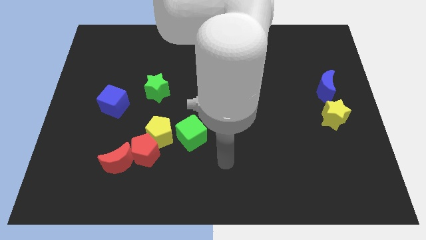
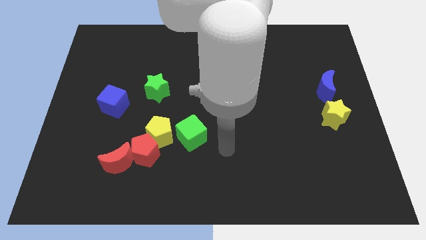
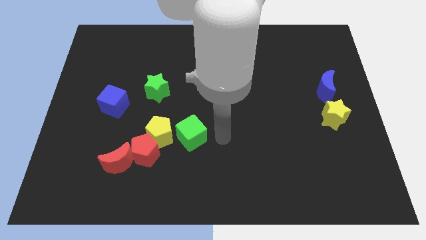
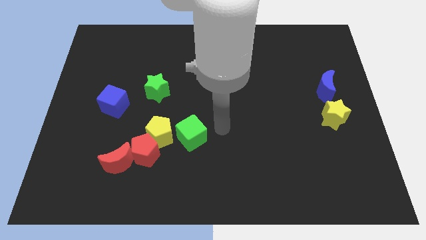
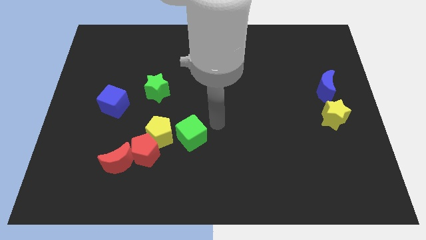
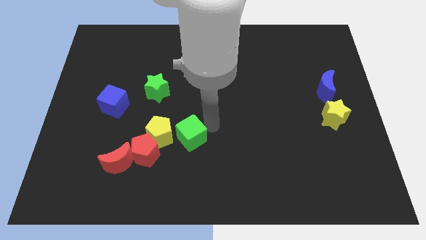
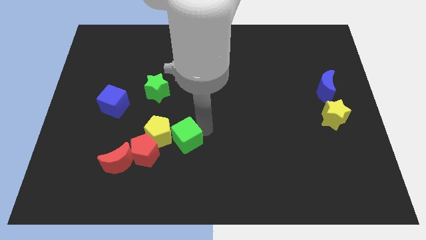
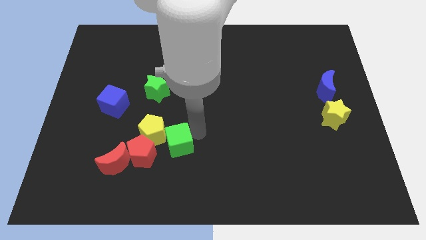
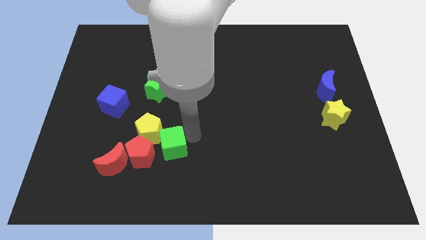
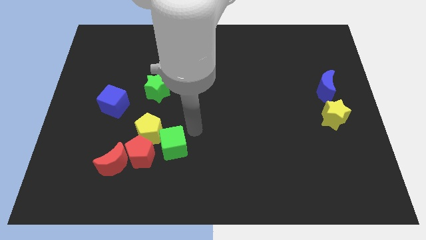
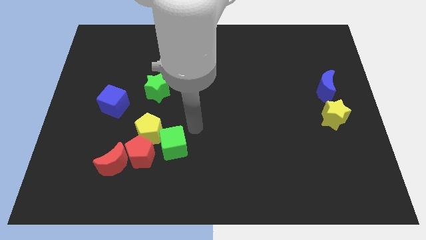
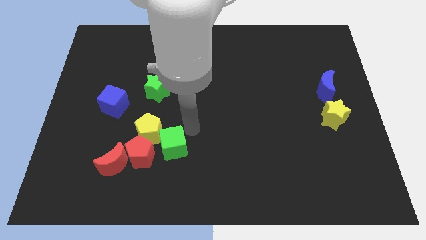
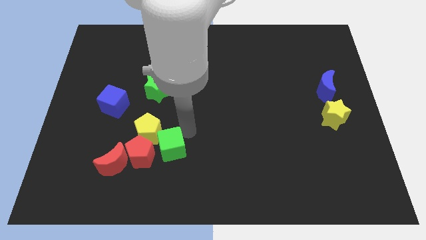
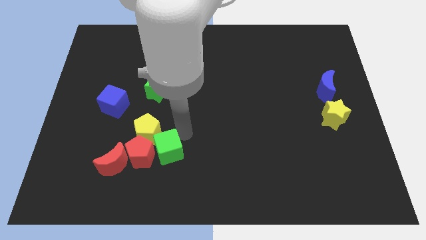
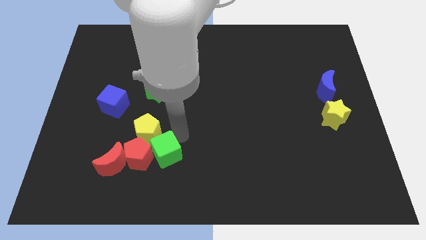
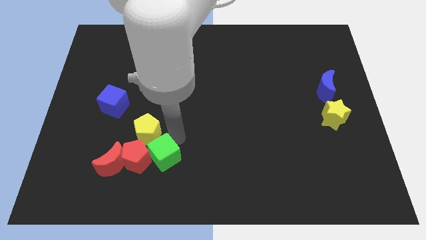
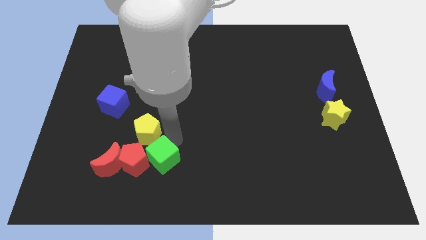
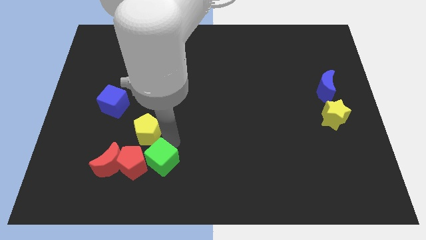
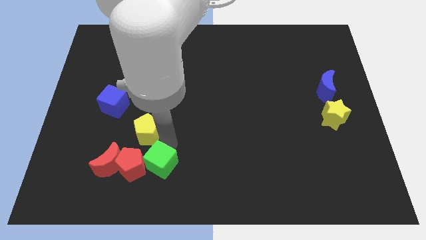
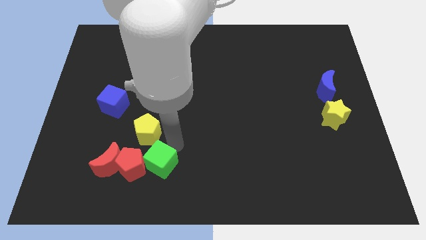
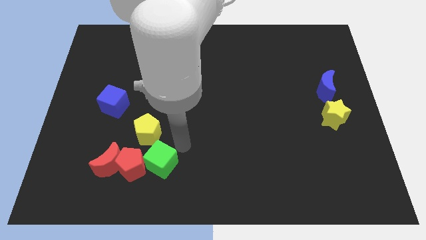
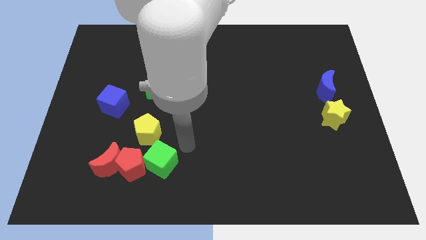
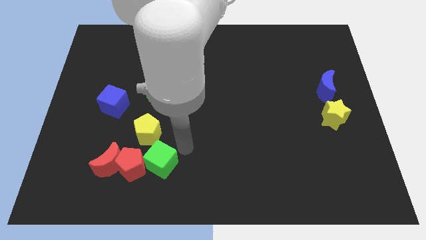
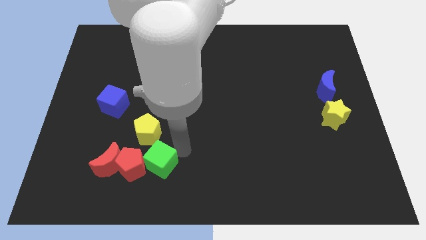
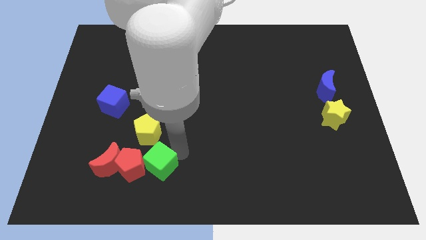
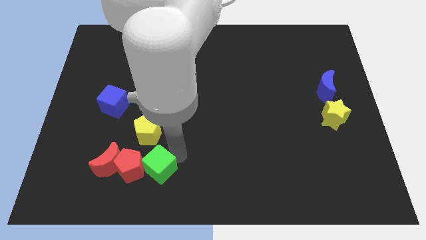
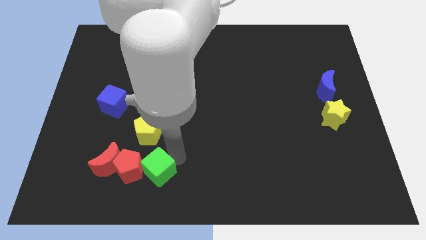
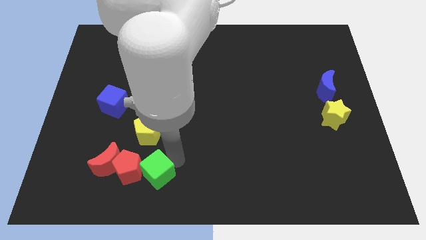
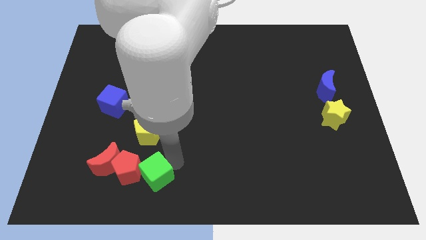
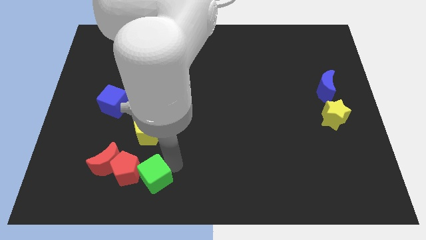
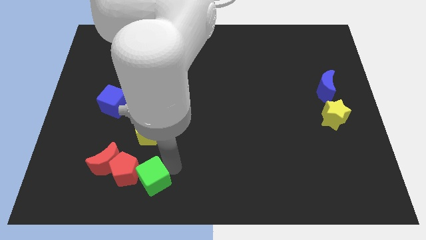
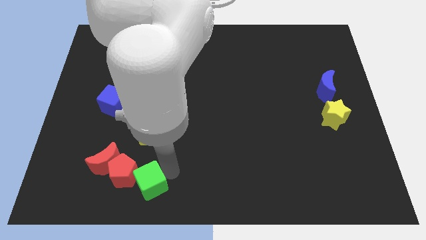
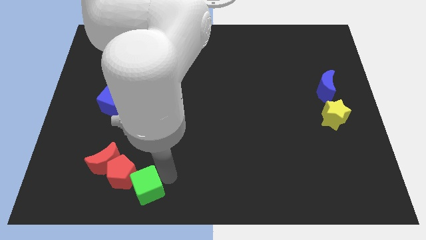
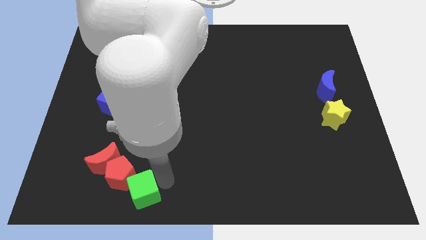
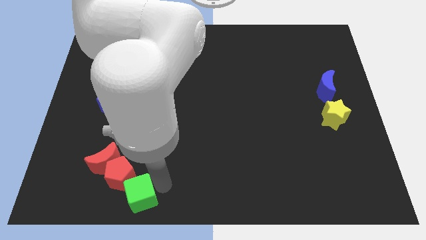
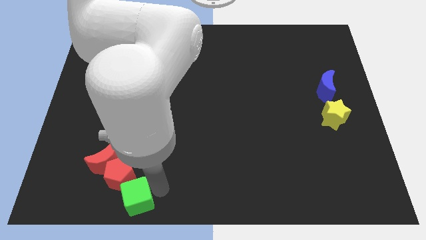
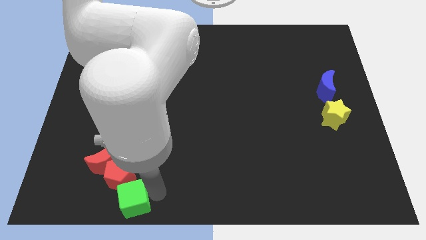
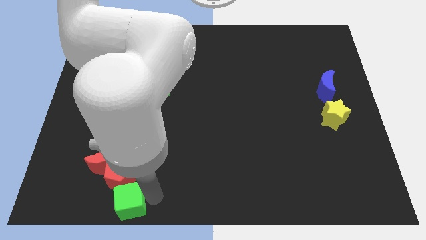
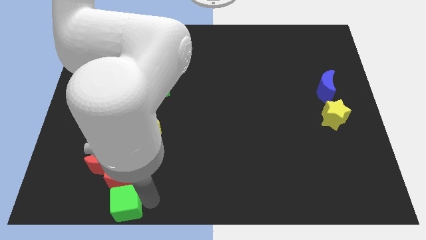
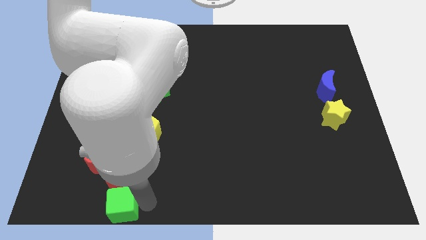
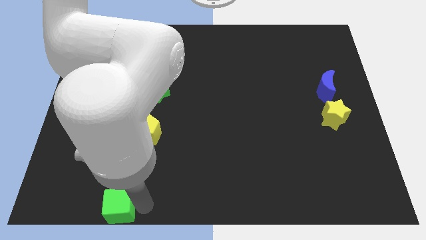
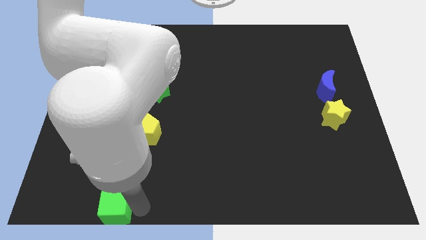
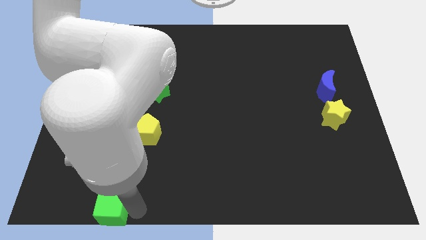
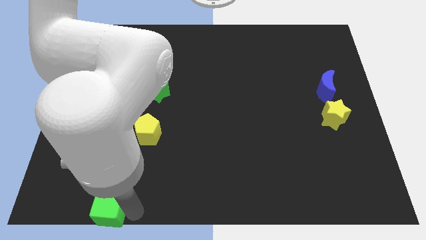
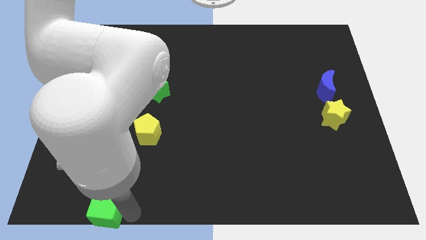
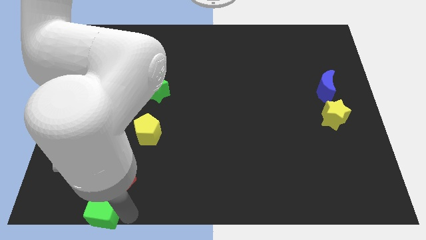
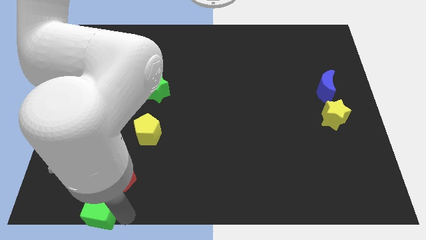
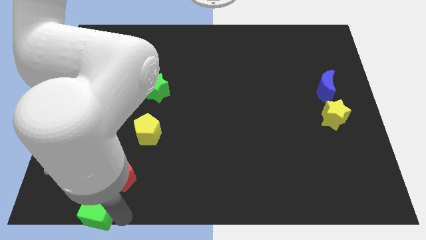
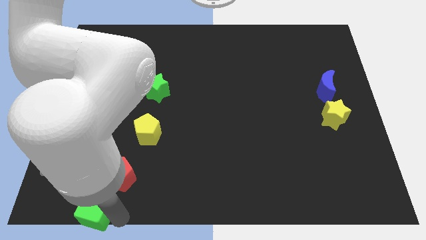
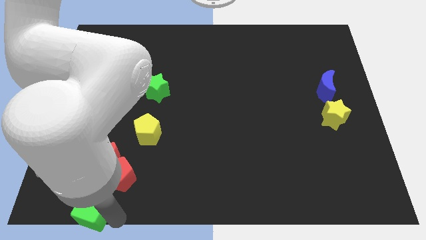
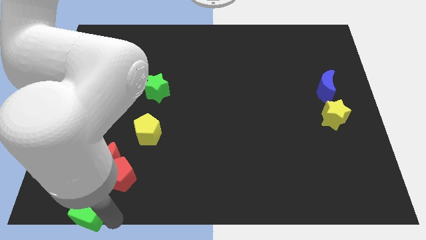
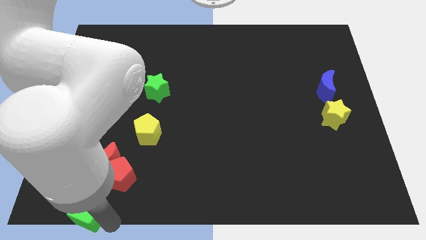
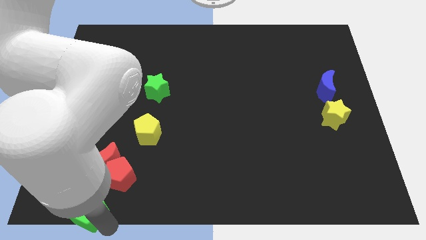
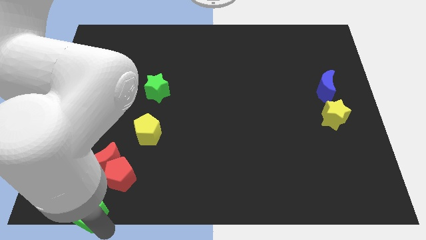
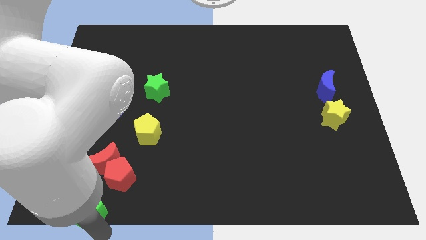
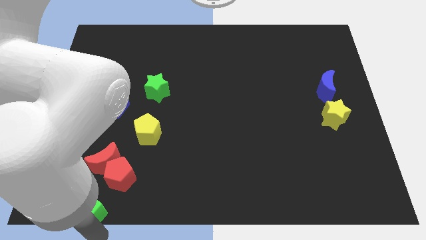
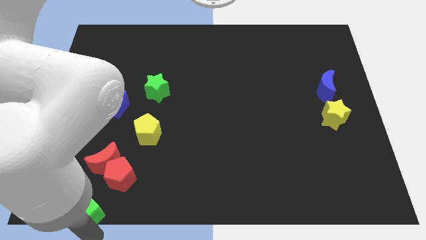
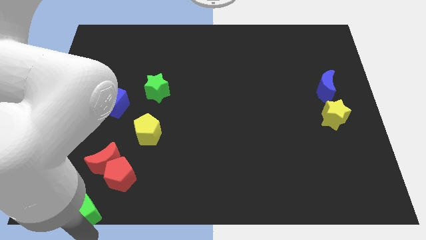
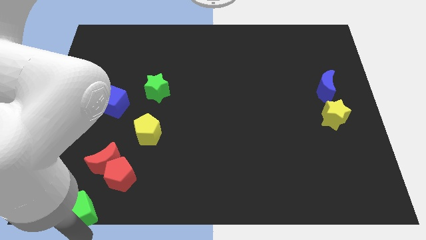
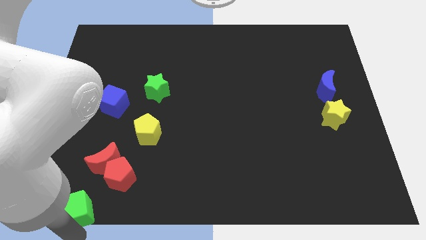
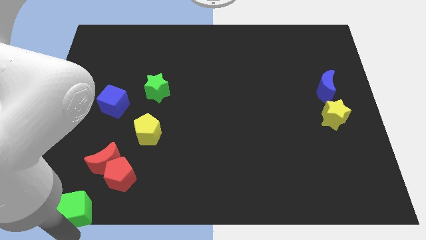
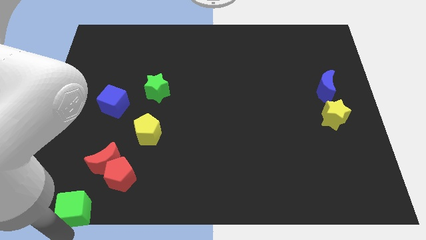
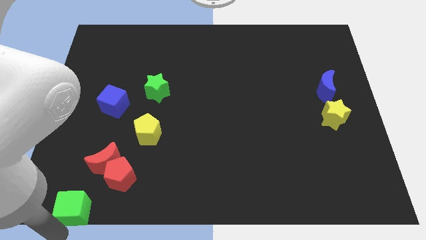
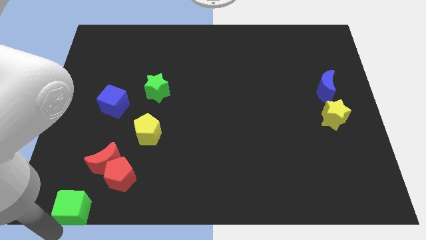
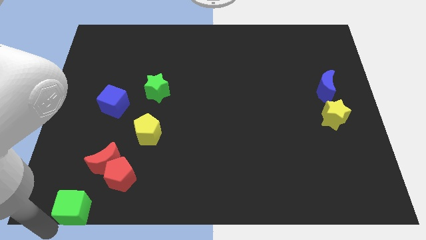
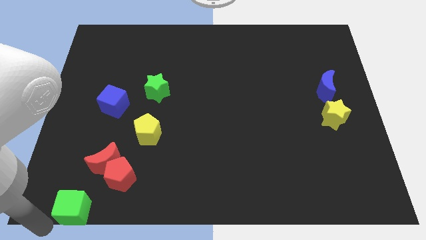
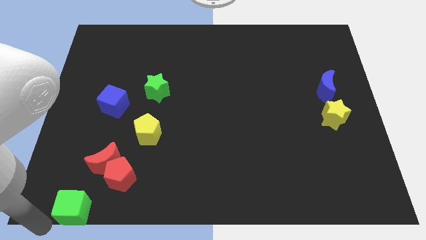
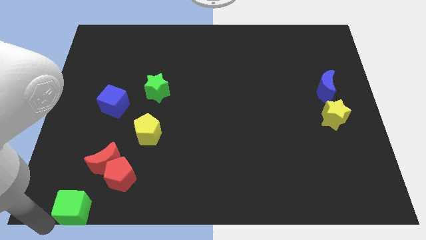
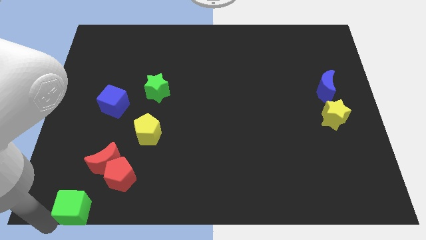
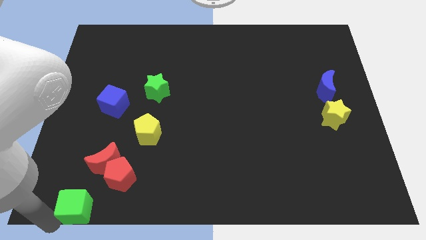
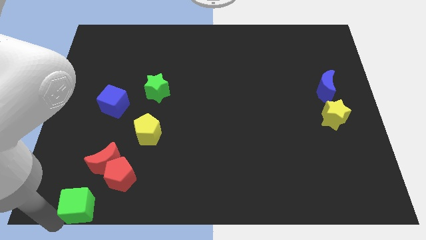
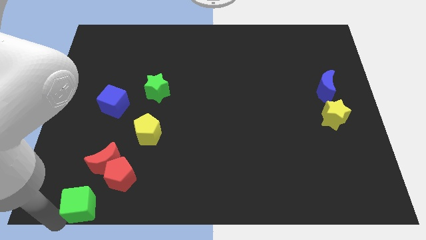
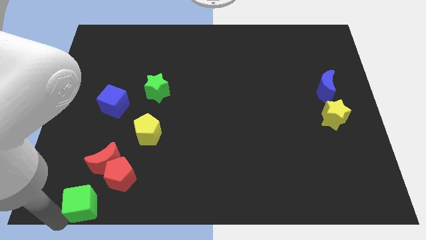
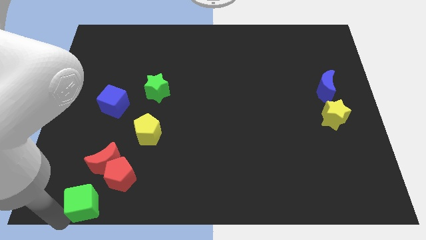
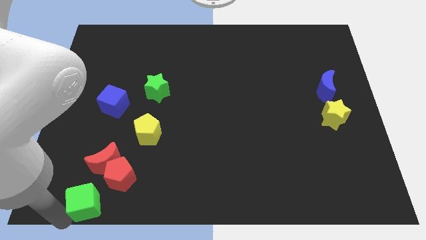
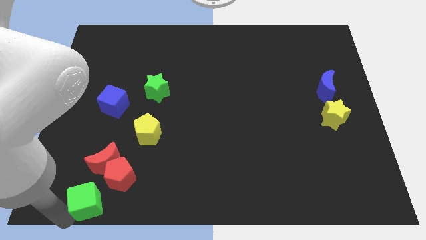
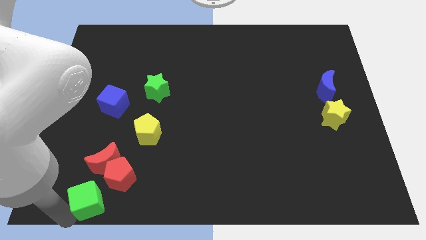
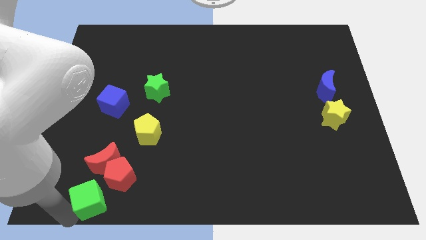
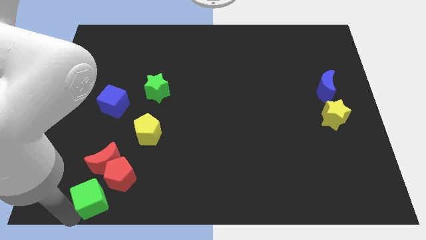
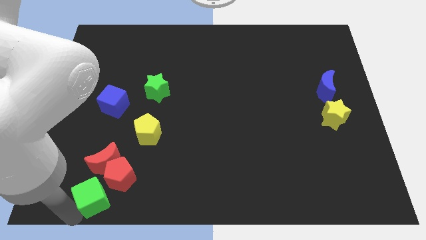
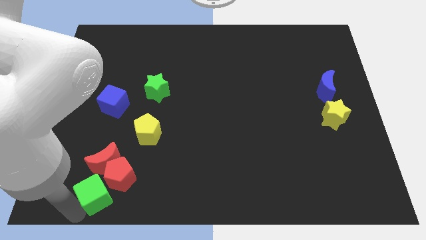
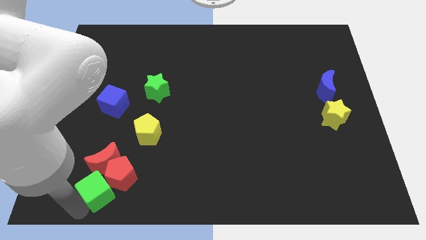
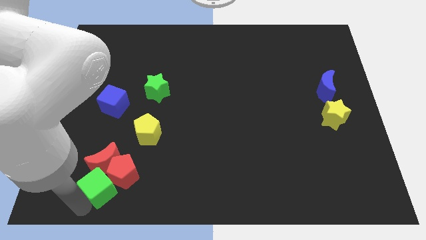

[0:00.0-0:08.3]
move the green cube diagonally down and to the left of the red pentagon
